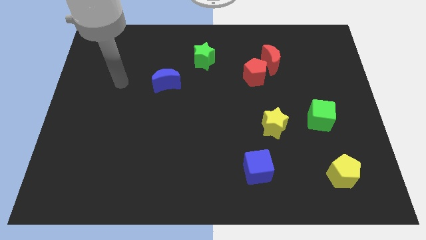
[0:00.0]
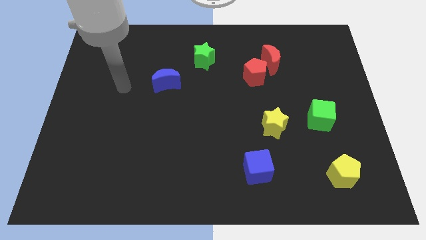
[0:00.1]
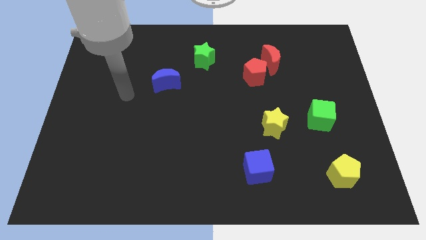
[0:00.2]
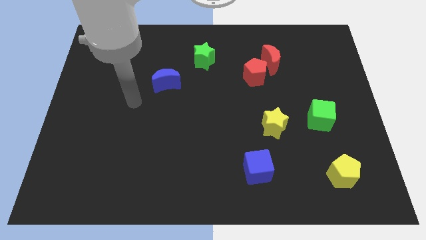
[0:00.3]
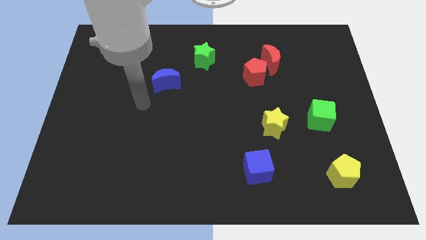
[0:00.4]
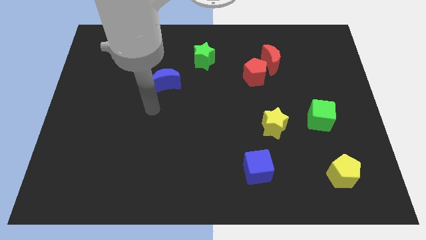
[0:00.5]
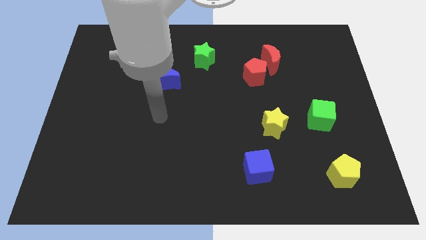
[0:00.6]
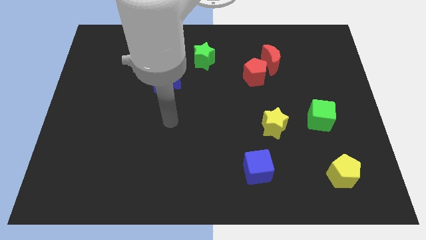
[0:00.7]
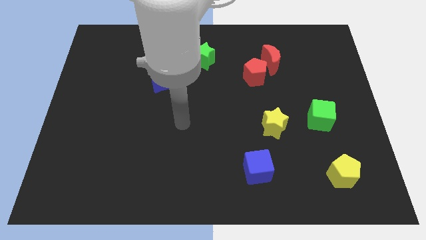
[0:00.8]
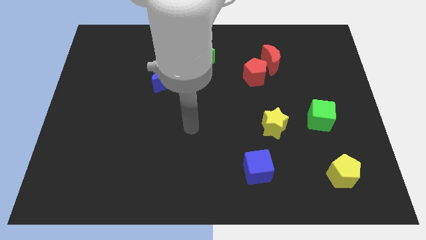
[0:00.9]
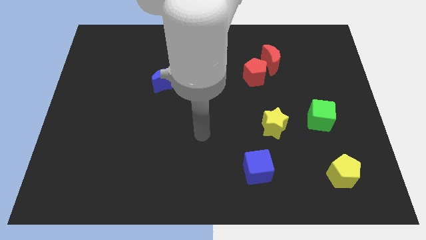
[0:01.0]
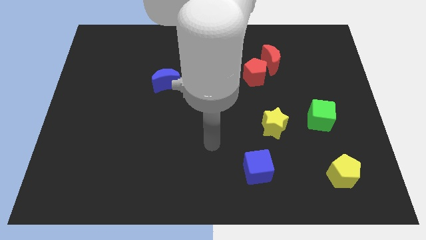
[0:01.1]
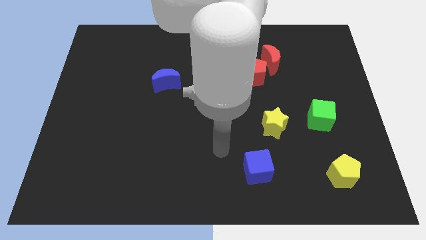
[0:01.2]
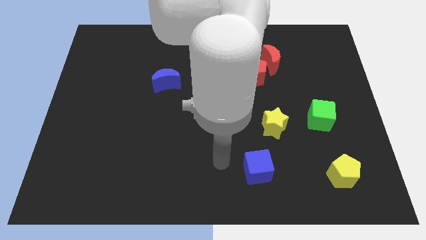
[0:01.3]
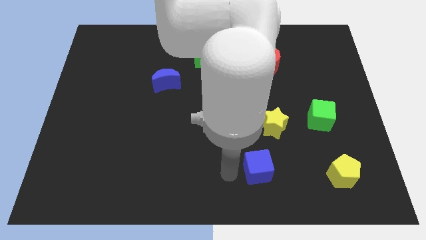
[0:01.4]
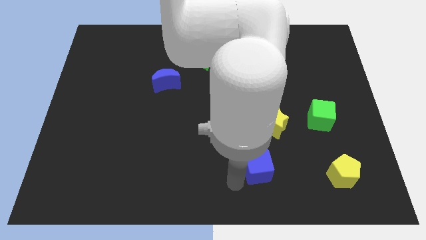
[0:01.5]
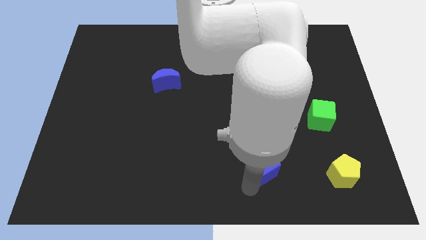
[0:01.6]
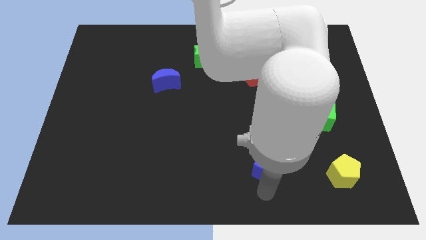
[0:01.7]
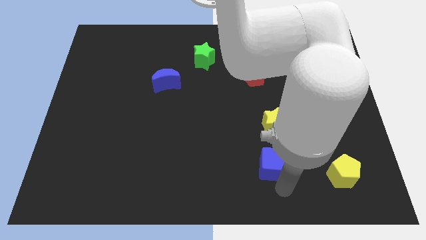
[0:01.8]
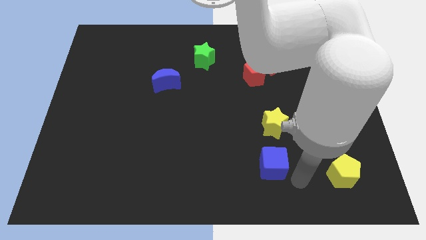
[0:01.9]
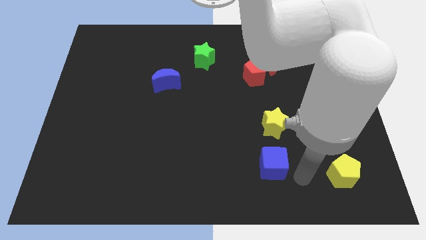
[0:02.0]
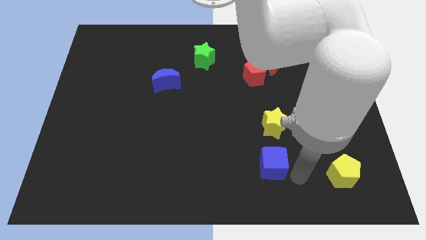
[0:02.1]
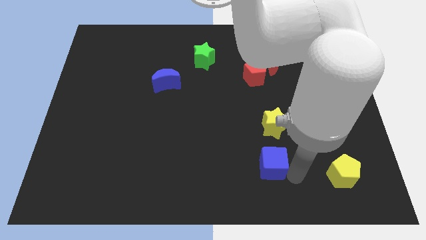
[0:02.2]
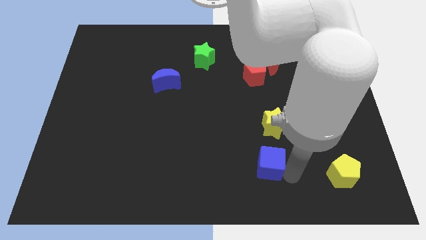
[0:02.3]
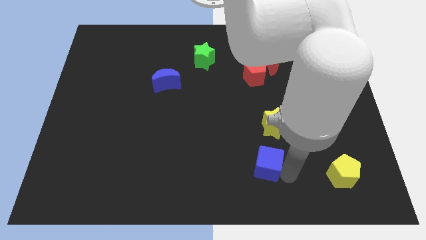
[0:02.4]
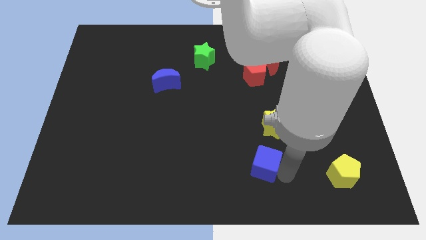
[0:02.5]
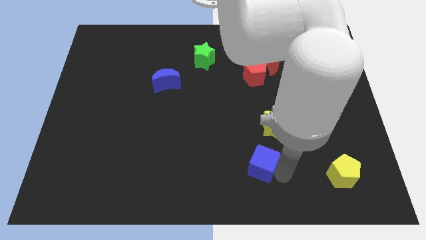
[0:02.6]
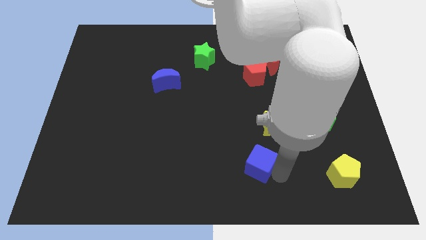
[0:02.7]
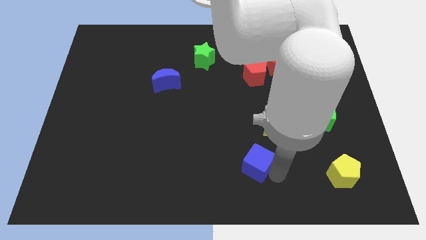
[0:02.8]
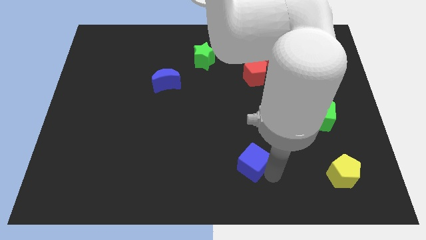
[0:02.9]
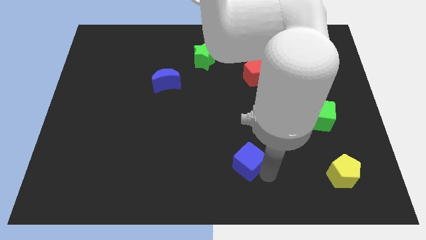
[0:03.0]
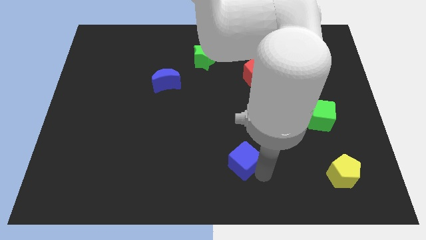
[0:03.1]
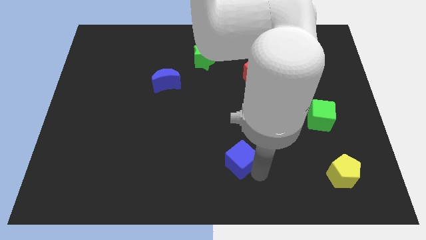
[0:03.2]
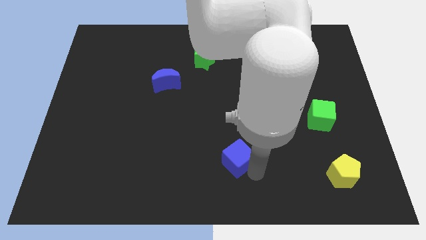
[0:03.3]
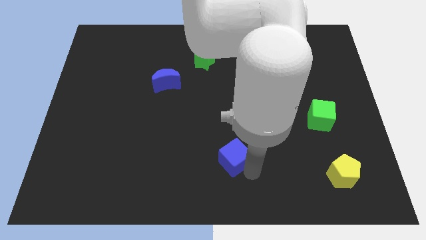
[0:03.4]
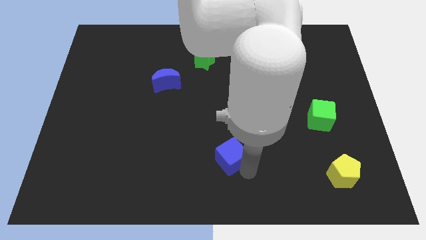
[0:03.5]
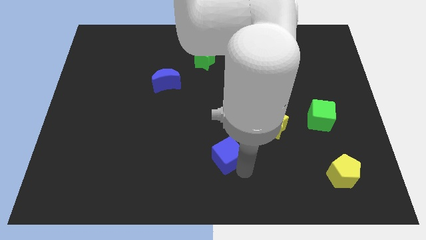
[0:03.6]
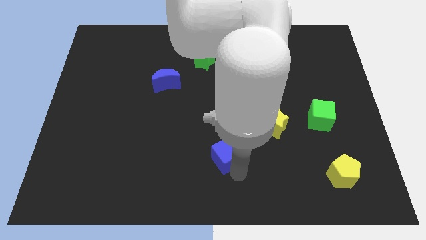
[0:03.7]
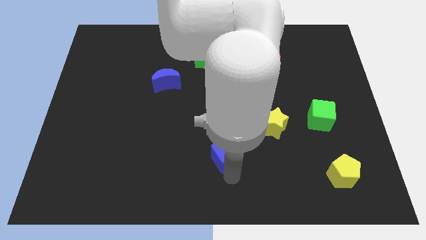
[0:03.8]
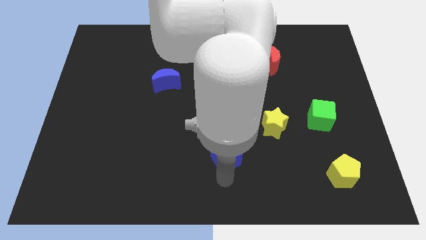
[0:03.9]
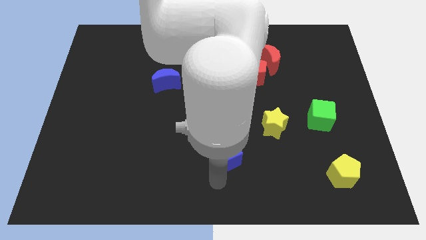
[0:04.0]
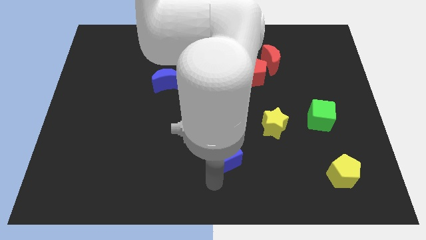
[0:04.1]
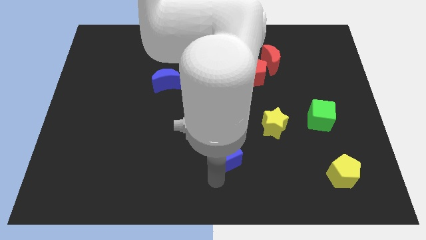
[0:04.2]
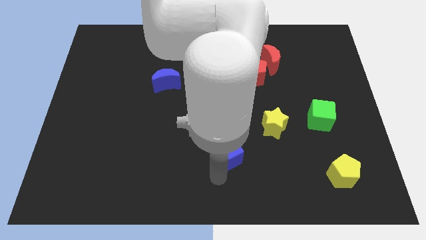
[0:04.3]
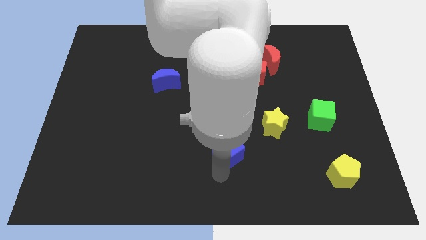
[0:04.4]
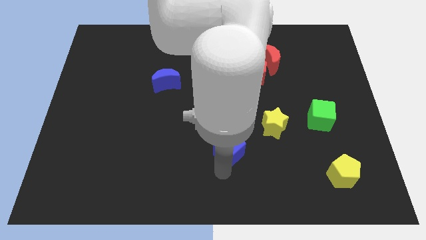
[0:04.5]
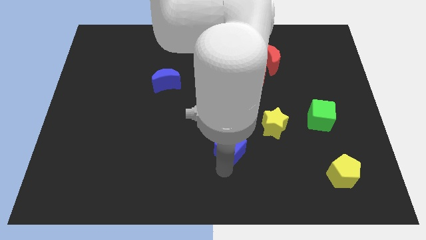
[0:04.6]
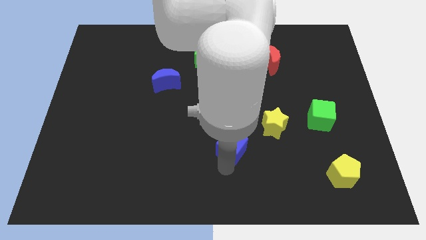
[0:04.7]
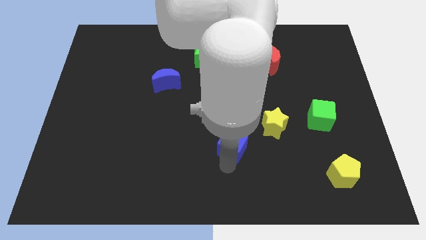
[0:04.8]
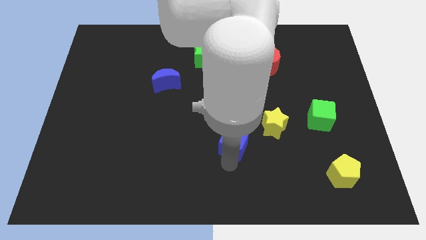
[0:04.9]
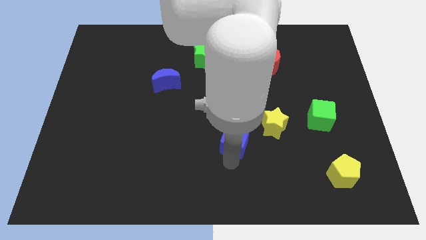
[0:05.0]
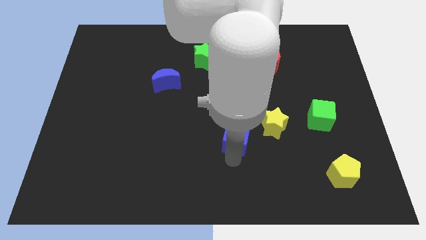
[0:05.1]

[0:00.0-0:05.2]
put the blue cube to the middle of the board

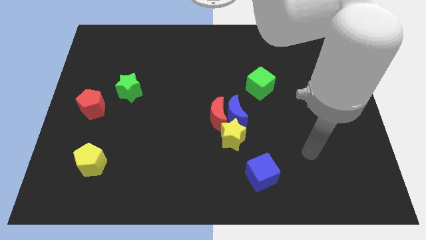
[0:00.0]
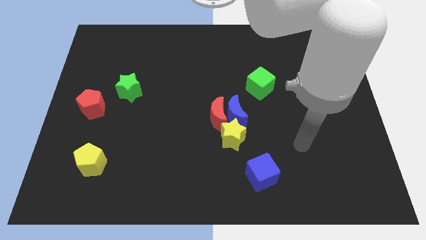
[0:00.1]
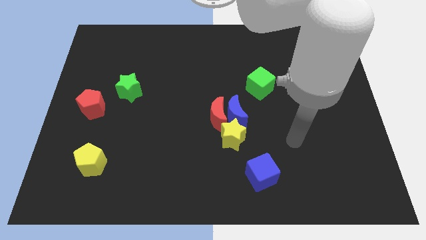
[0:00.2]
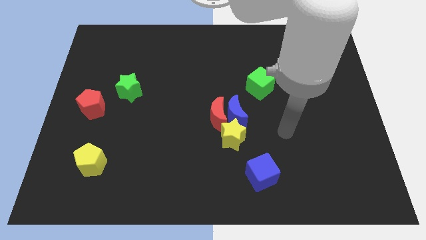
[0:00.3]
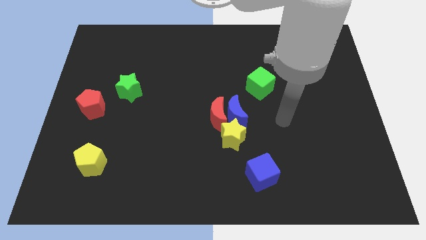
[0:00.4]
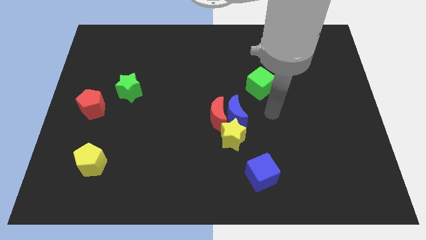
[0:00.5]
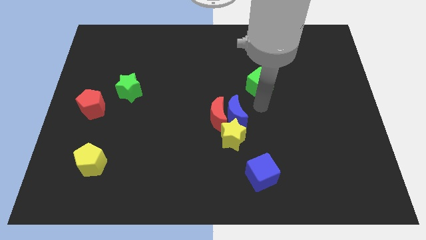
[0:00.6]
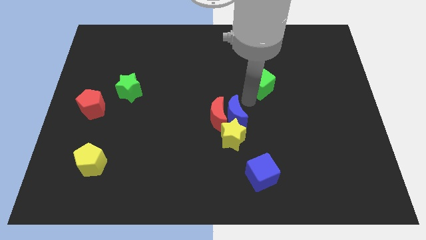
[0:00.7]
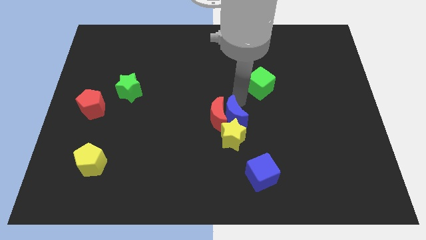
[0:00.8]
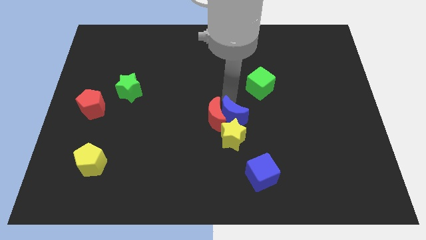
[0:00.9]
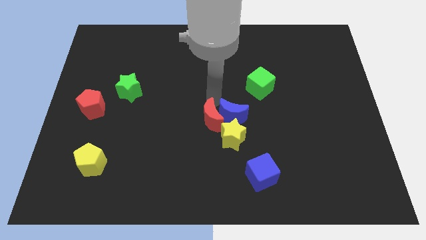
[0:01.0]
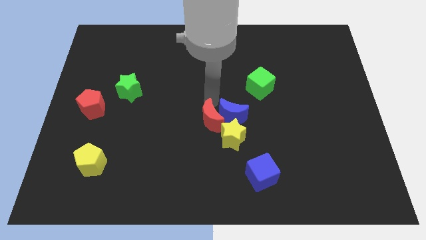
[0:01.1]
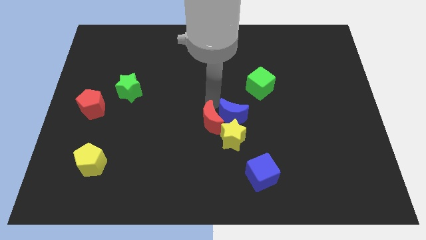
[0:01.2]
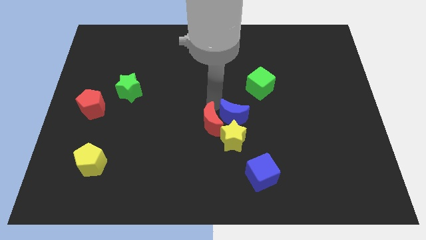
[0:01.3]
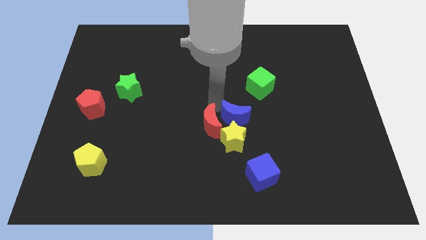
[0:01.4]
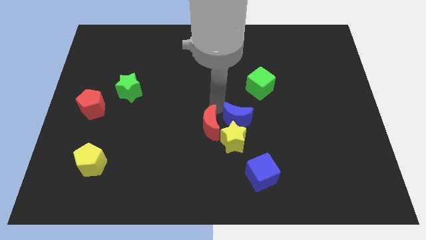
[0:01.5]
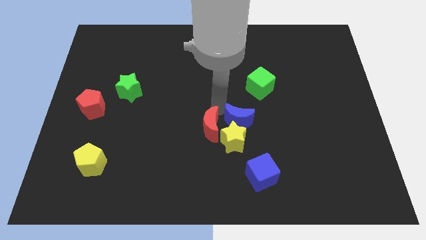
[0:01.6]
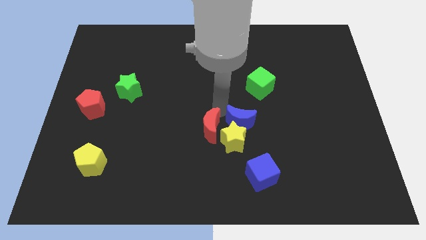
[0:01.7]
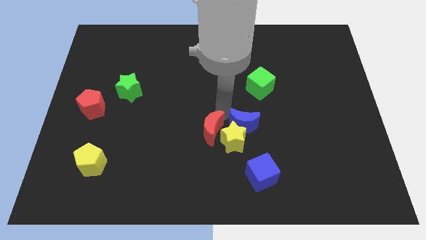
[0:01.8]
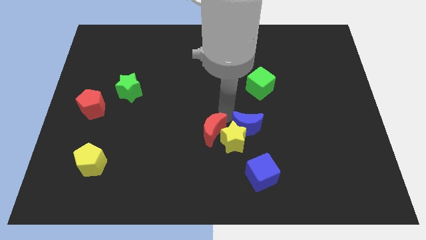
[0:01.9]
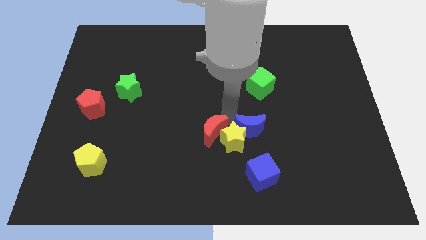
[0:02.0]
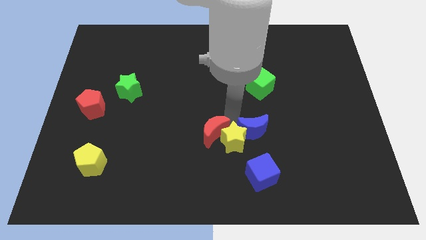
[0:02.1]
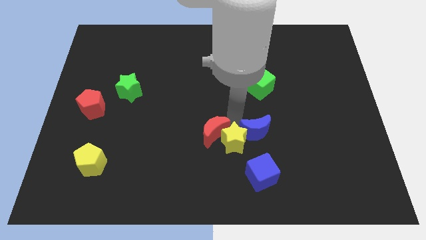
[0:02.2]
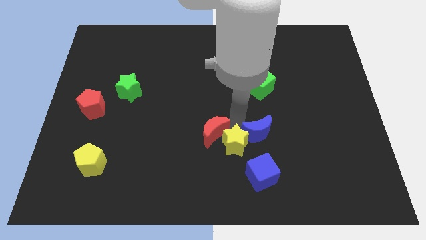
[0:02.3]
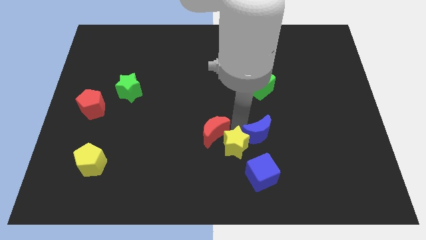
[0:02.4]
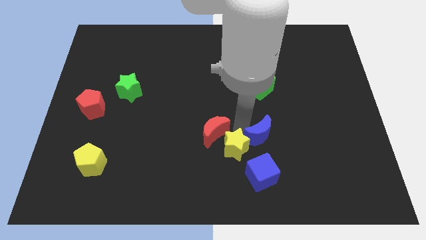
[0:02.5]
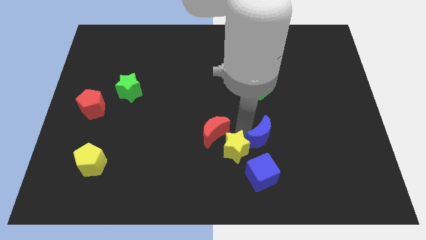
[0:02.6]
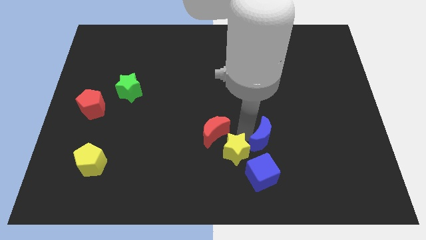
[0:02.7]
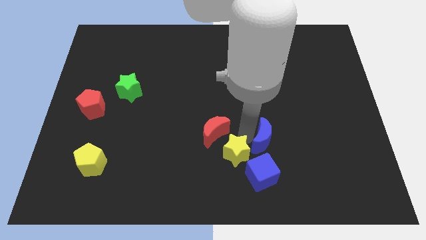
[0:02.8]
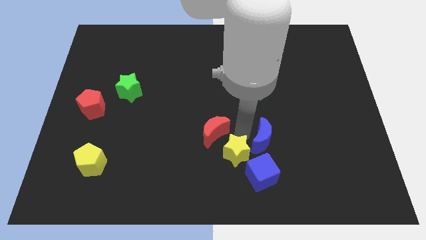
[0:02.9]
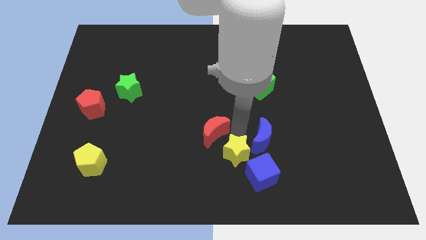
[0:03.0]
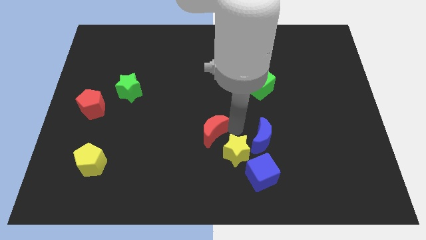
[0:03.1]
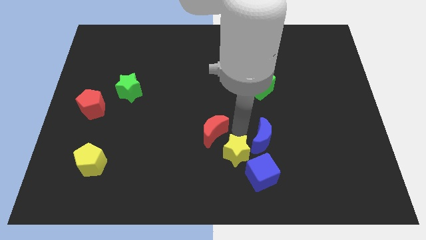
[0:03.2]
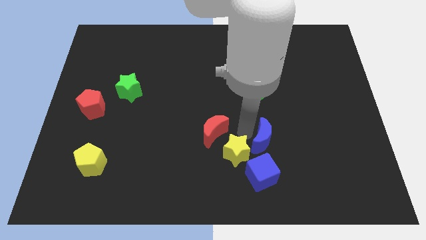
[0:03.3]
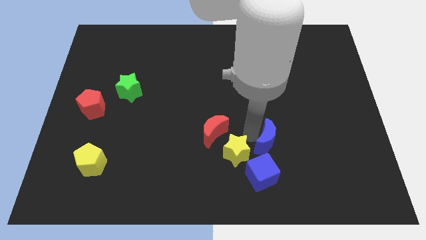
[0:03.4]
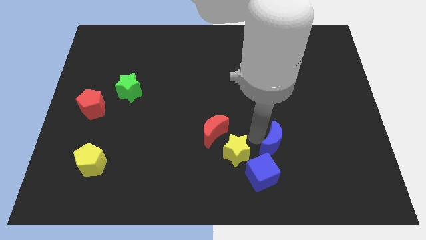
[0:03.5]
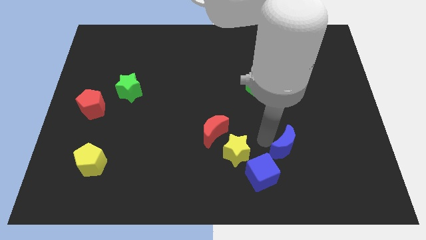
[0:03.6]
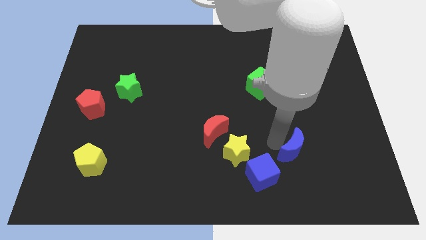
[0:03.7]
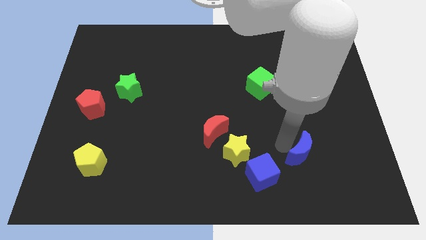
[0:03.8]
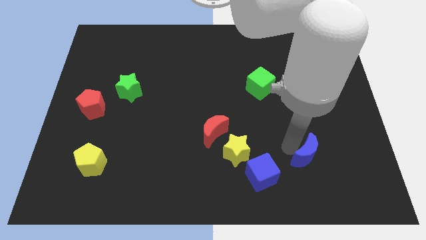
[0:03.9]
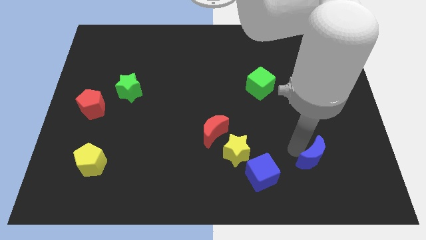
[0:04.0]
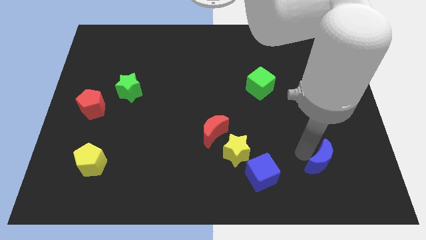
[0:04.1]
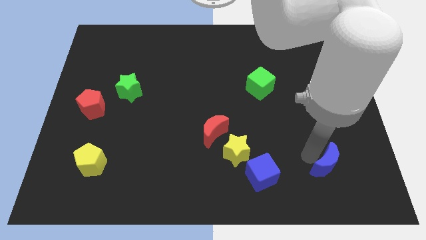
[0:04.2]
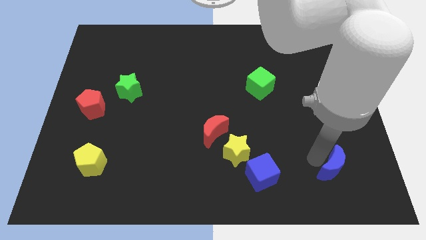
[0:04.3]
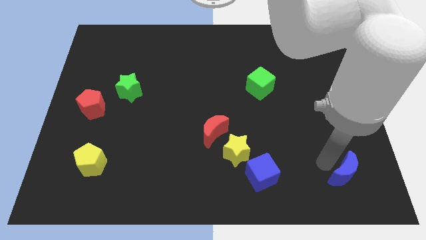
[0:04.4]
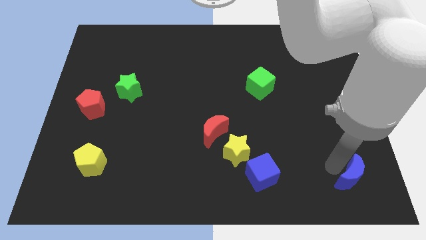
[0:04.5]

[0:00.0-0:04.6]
push the blue moon to the bottom right of the board
